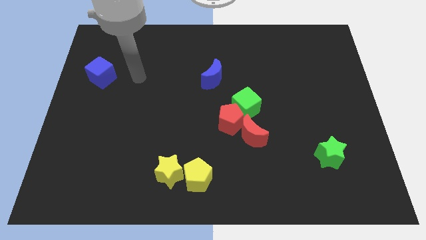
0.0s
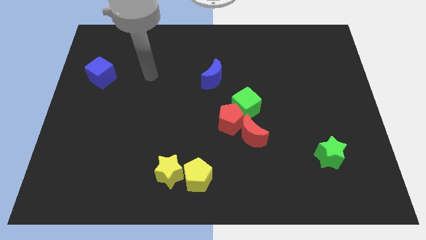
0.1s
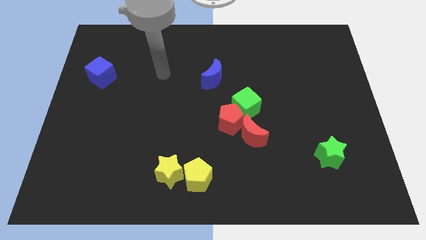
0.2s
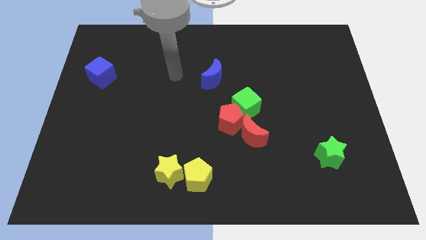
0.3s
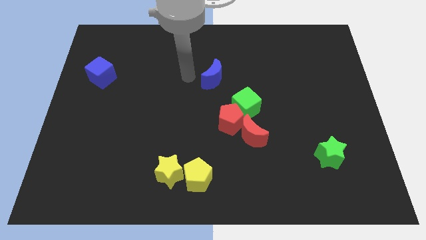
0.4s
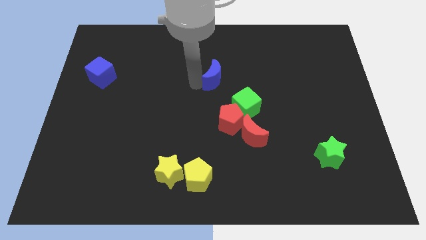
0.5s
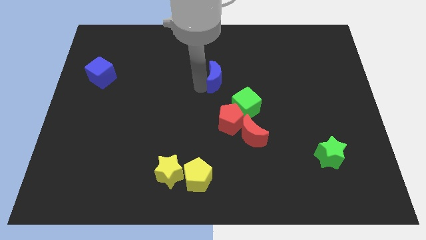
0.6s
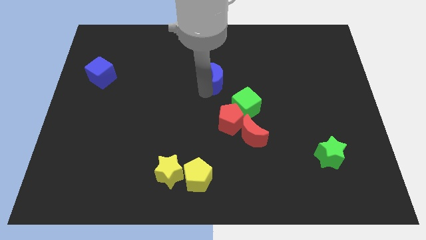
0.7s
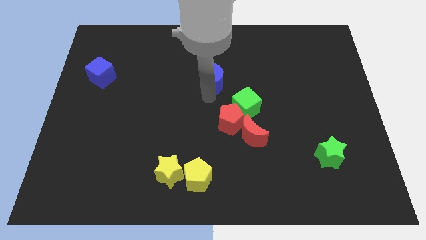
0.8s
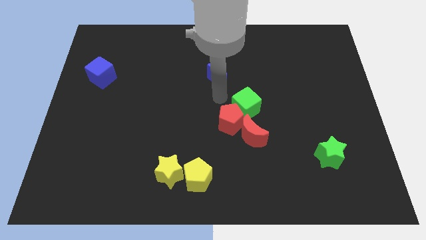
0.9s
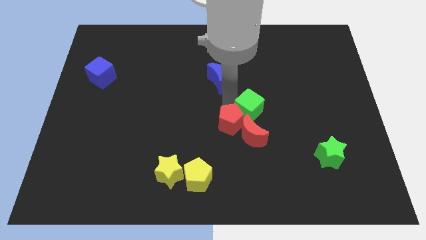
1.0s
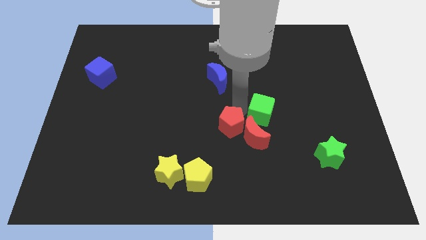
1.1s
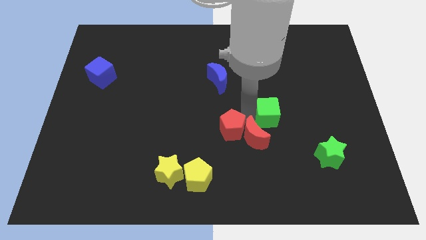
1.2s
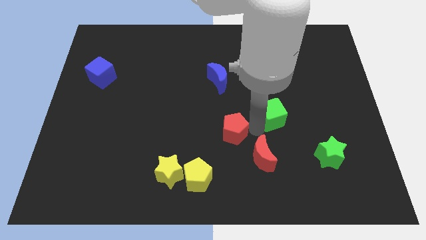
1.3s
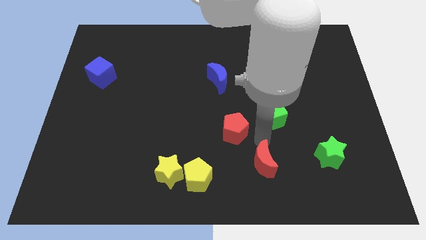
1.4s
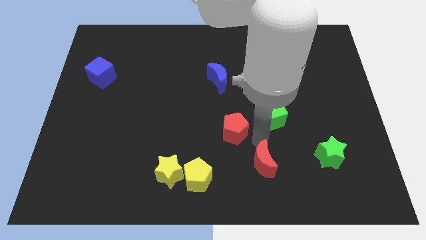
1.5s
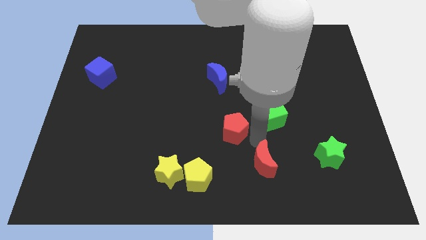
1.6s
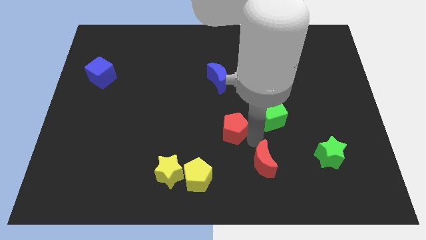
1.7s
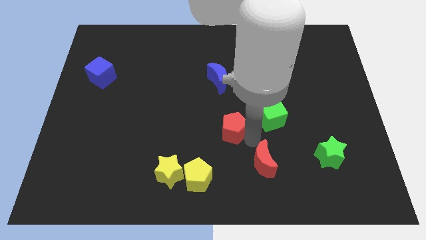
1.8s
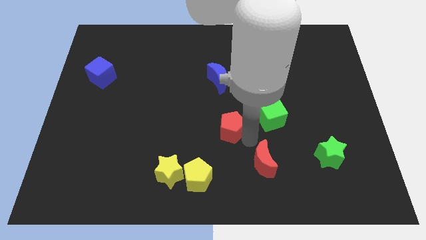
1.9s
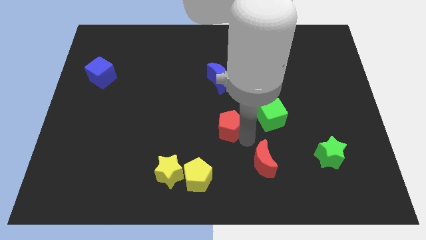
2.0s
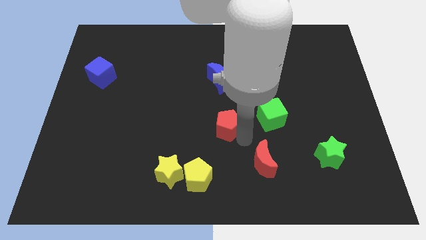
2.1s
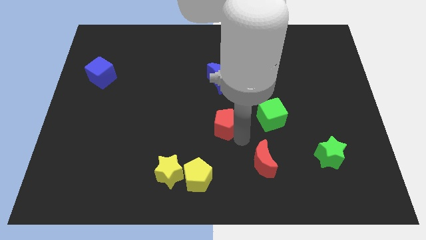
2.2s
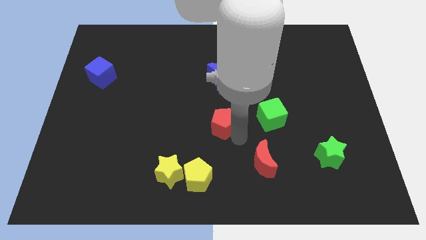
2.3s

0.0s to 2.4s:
move the red pentagon away from the green cube and red moon

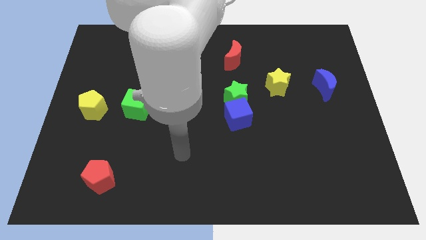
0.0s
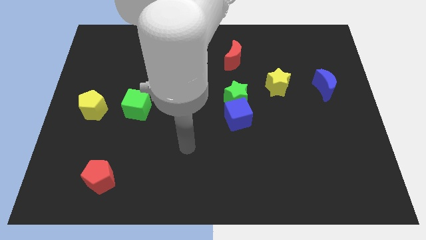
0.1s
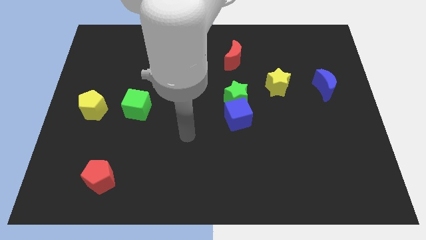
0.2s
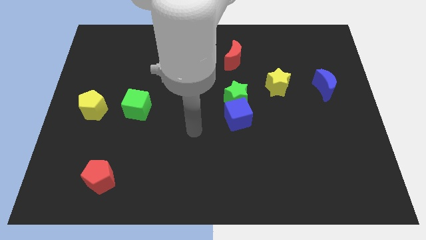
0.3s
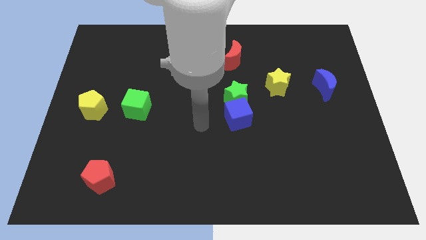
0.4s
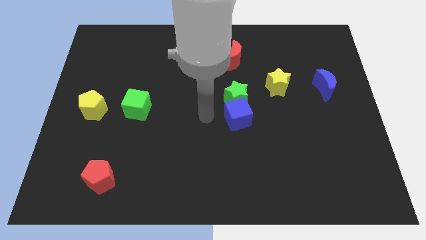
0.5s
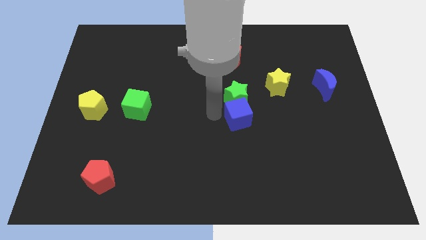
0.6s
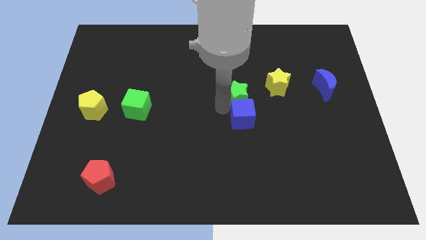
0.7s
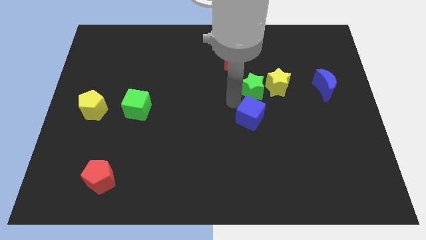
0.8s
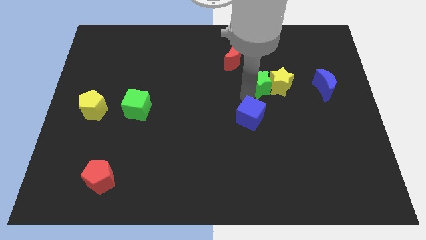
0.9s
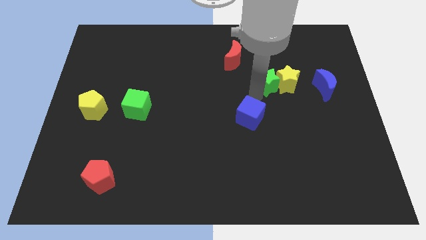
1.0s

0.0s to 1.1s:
separate the blue cube from the green star

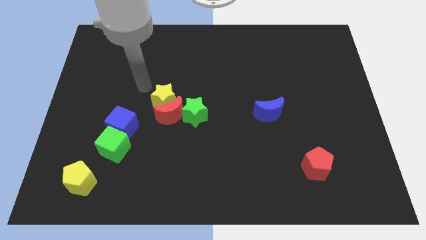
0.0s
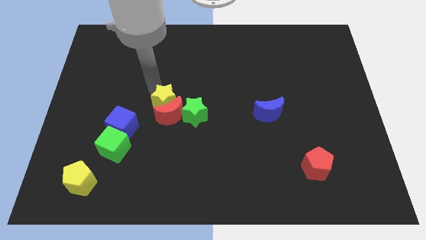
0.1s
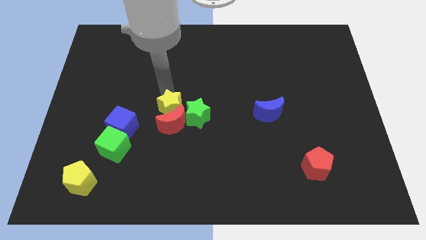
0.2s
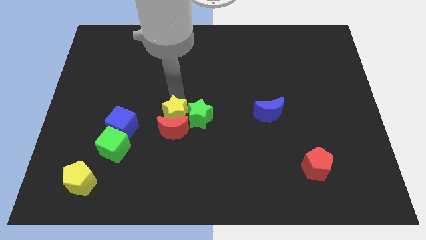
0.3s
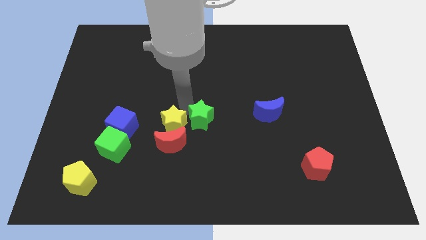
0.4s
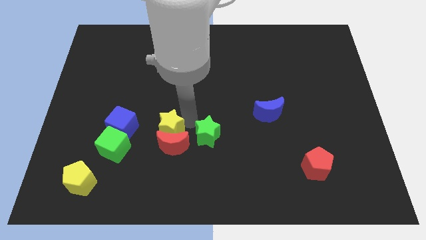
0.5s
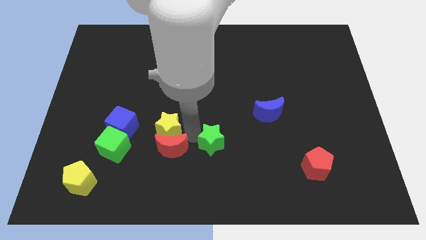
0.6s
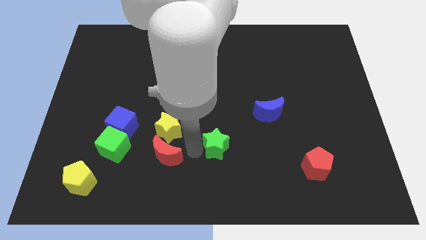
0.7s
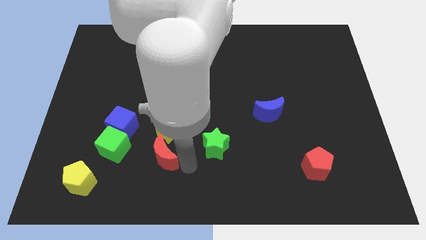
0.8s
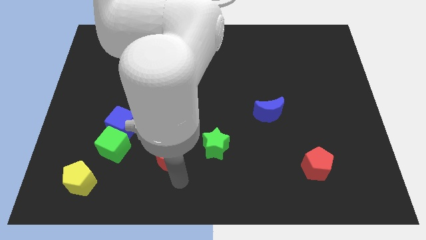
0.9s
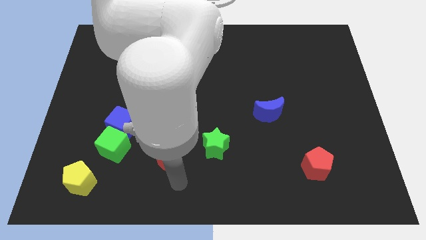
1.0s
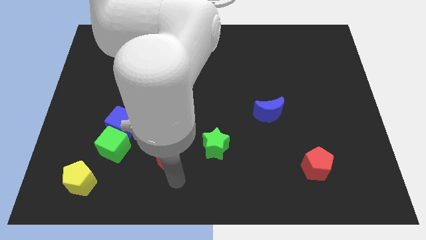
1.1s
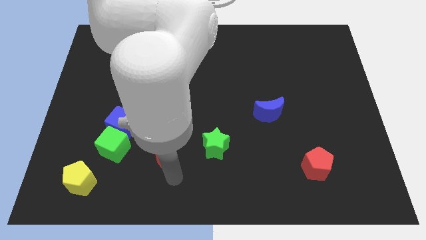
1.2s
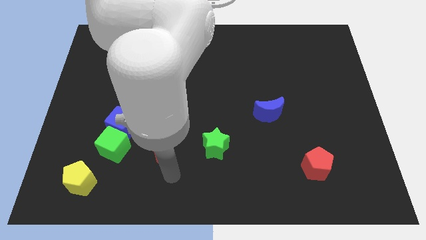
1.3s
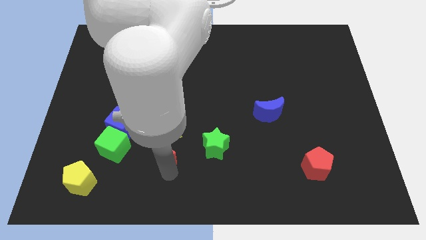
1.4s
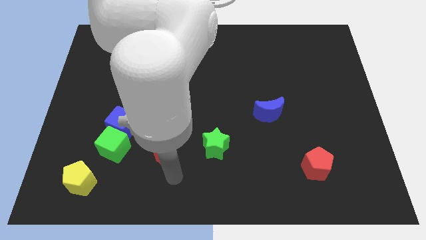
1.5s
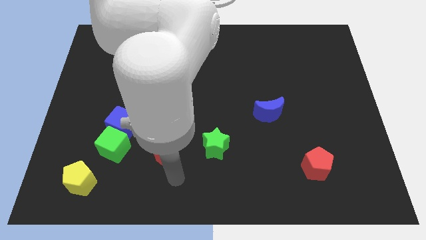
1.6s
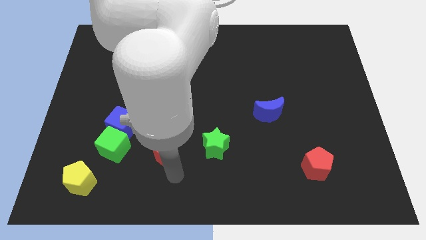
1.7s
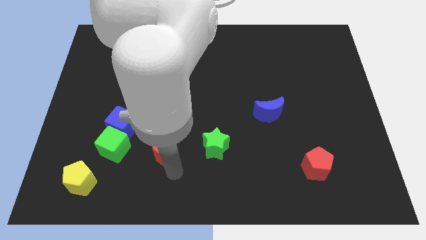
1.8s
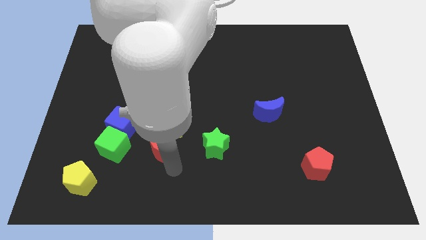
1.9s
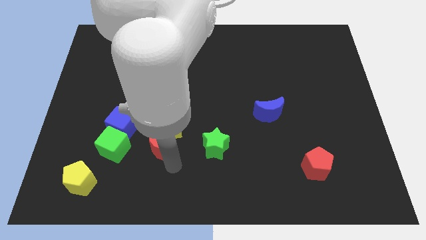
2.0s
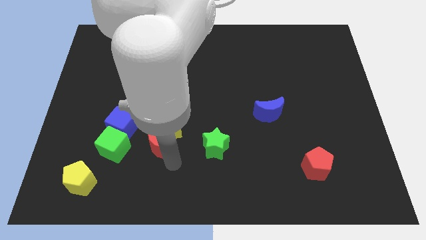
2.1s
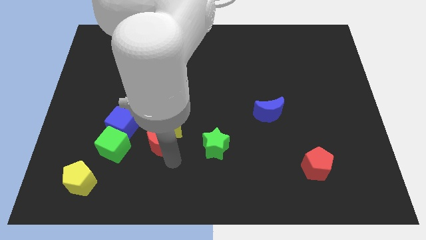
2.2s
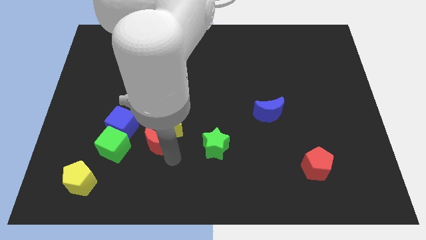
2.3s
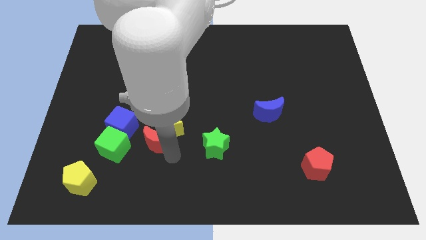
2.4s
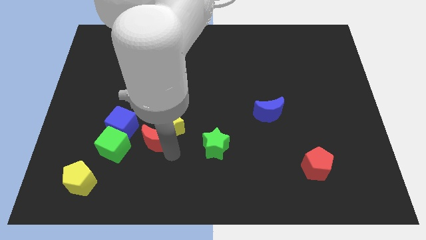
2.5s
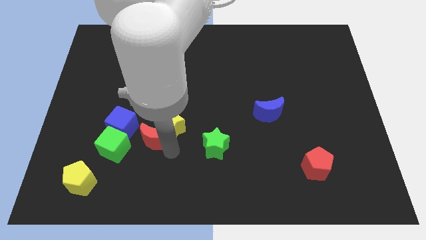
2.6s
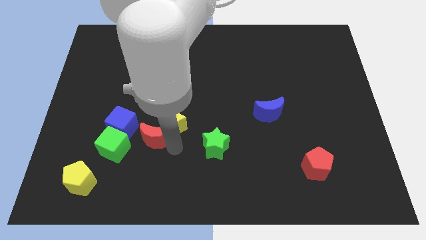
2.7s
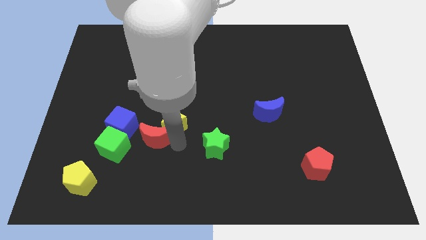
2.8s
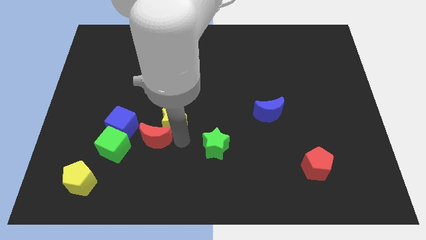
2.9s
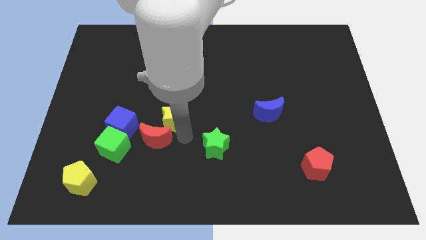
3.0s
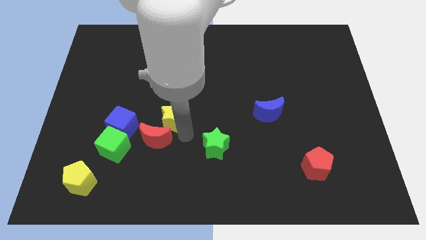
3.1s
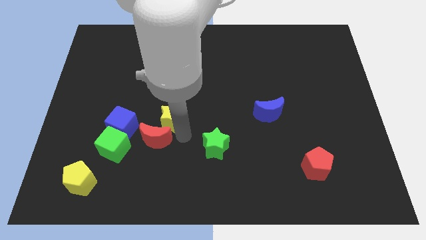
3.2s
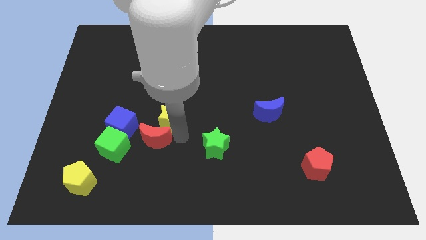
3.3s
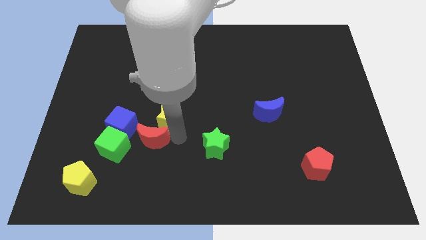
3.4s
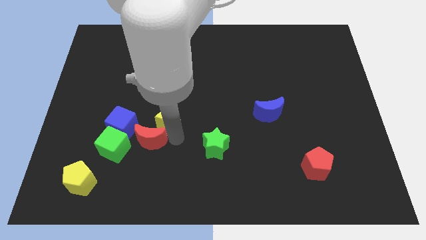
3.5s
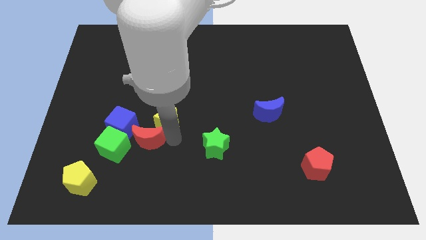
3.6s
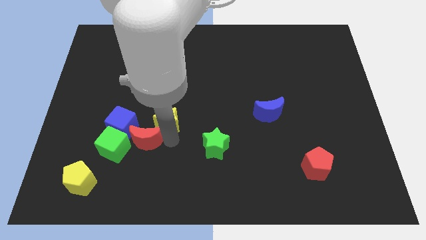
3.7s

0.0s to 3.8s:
move the red moon away from the yellow star and green star

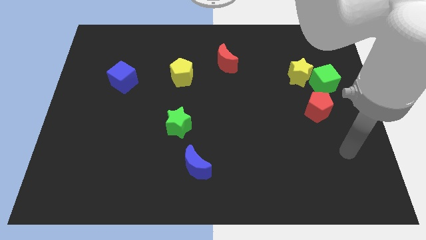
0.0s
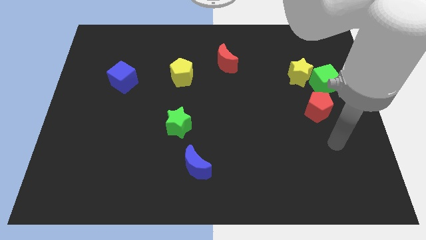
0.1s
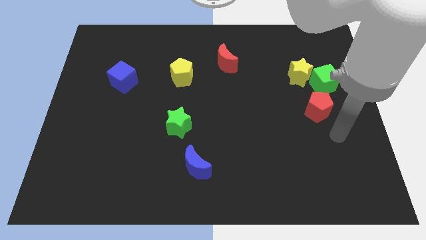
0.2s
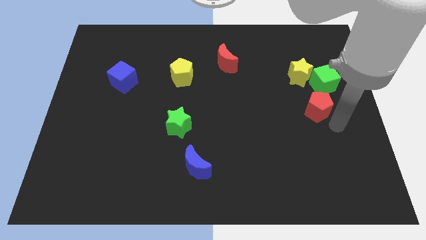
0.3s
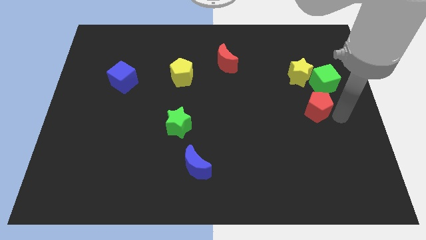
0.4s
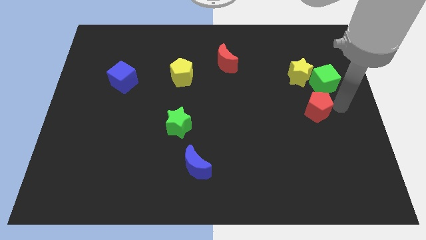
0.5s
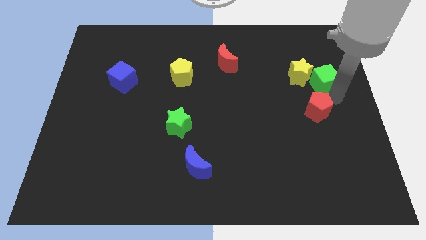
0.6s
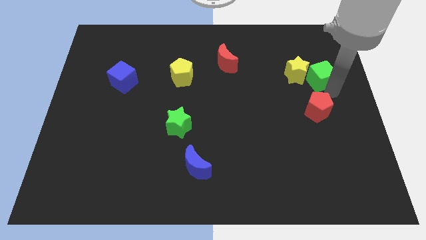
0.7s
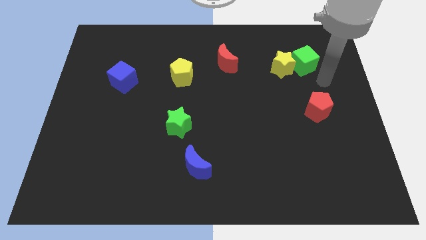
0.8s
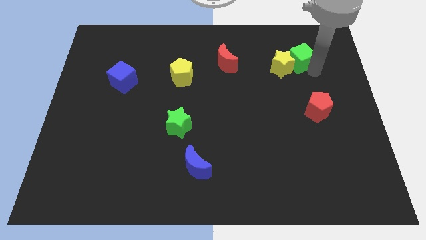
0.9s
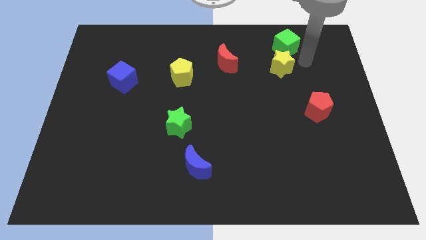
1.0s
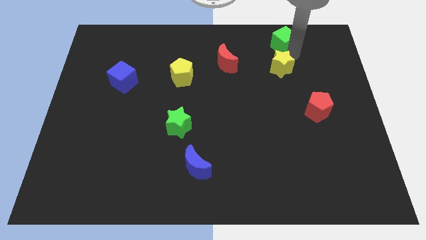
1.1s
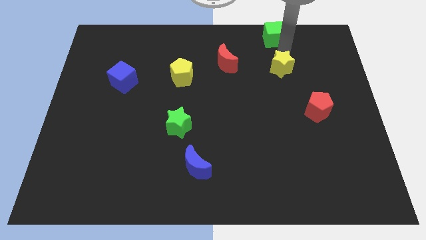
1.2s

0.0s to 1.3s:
separate the yellow star from the green cube

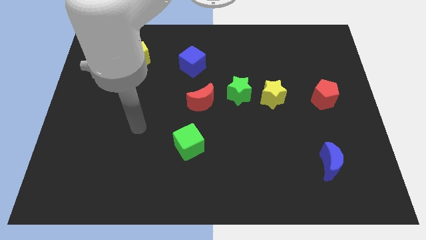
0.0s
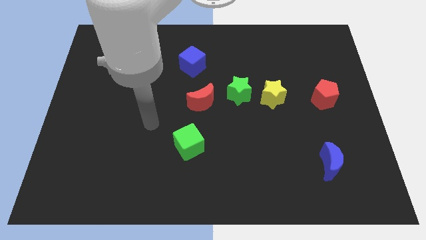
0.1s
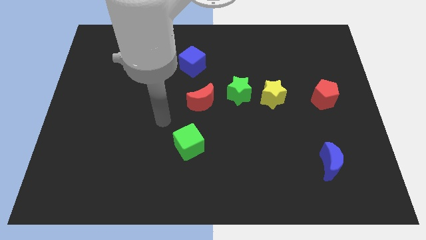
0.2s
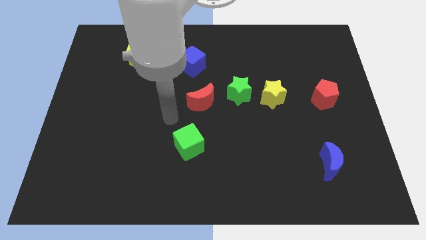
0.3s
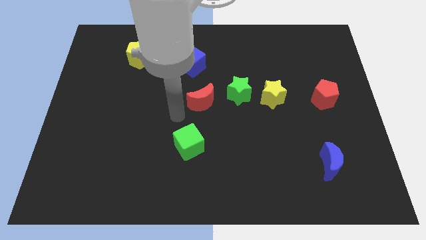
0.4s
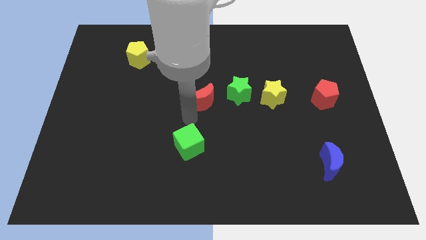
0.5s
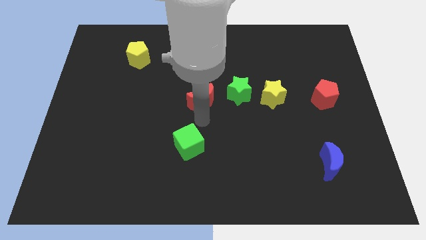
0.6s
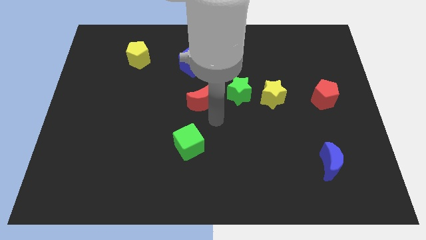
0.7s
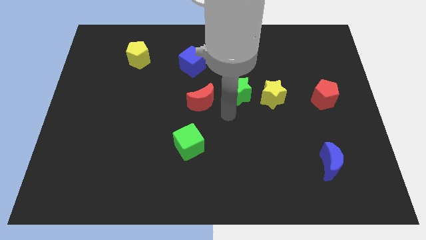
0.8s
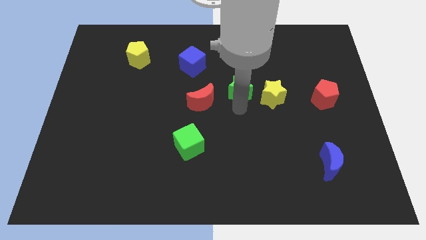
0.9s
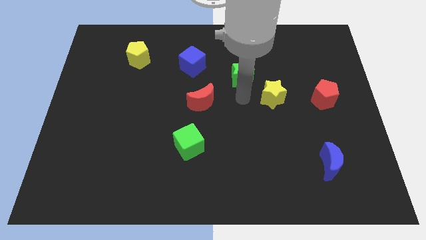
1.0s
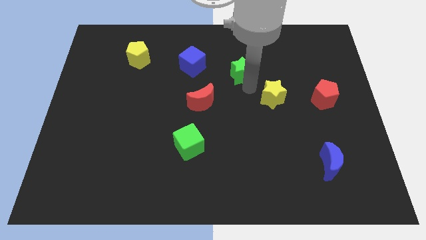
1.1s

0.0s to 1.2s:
separate the yellow star from the green star
